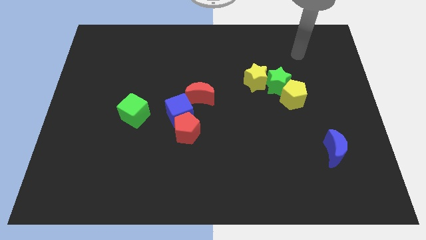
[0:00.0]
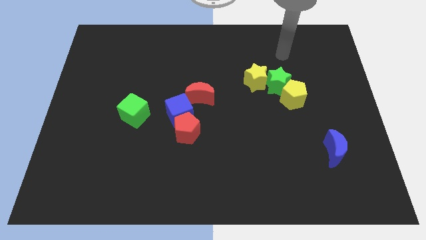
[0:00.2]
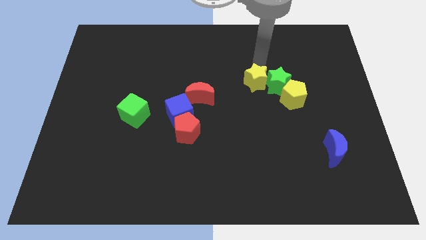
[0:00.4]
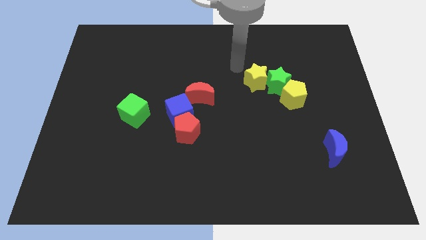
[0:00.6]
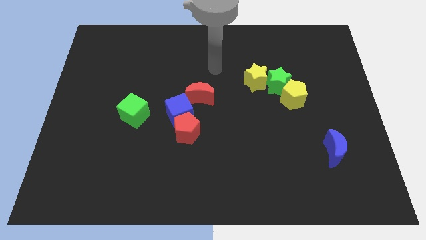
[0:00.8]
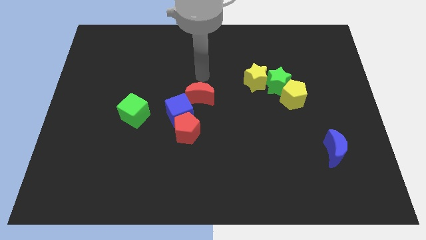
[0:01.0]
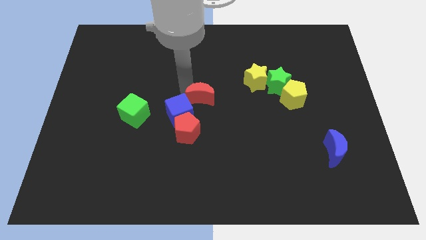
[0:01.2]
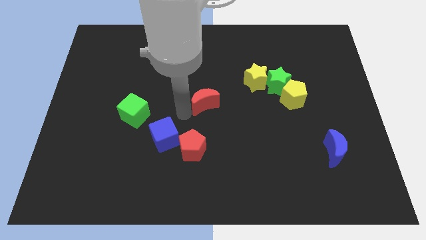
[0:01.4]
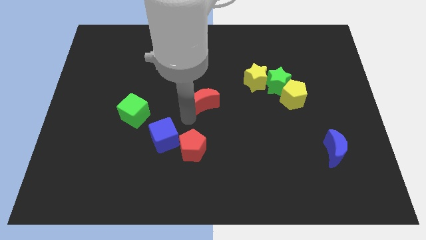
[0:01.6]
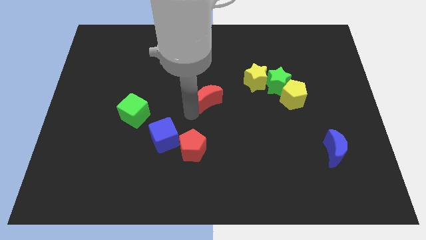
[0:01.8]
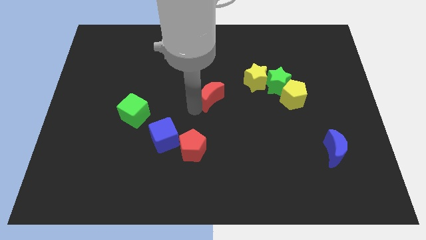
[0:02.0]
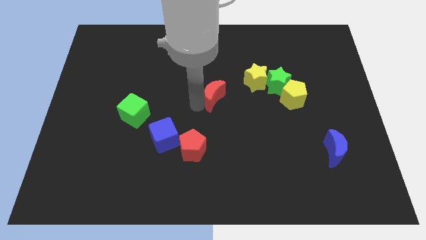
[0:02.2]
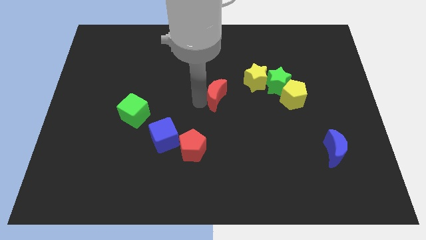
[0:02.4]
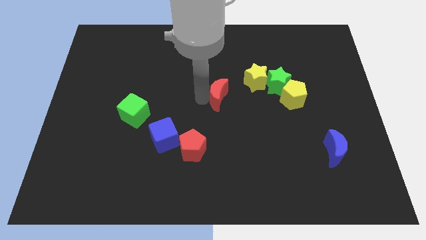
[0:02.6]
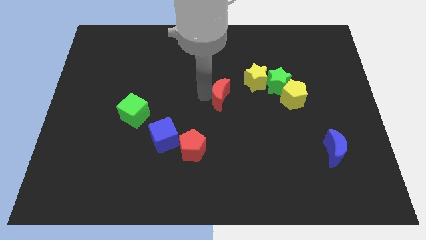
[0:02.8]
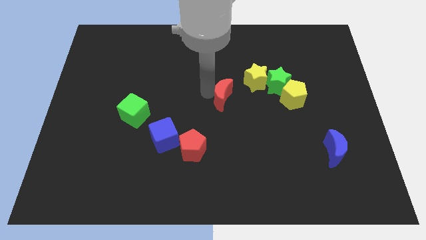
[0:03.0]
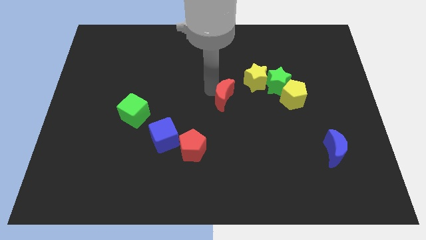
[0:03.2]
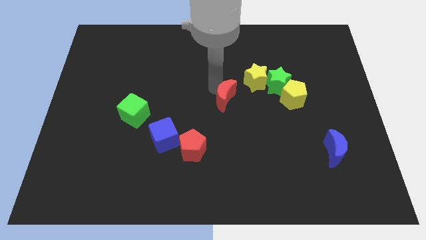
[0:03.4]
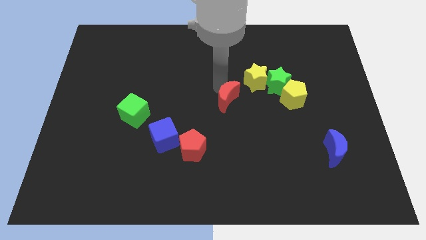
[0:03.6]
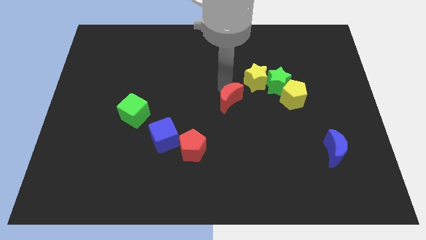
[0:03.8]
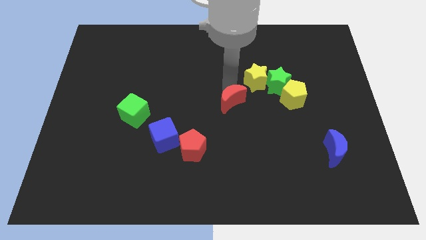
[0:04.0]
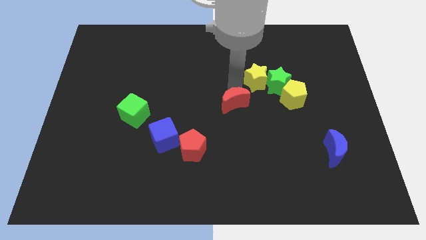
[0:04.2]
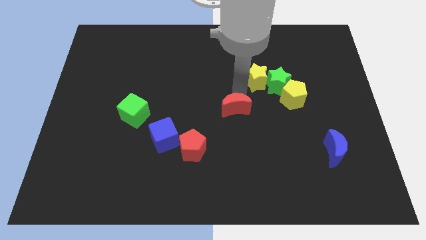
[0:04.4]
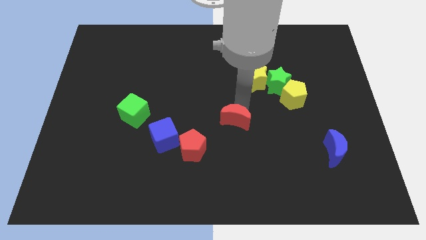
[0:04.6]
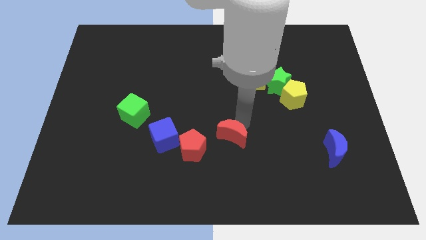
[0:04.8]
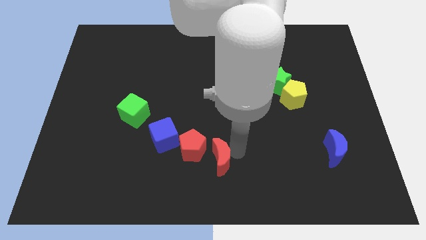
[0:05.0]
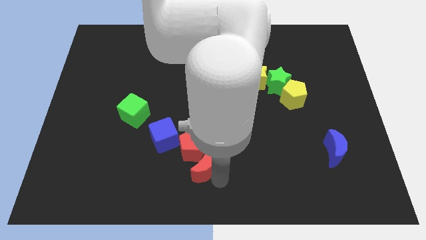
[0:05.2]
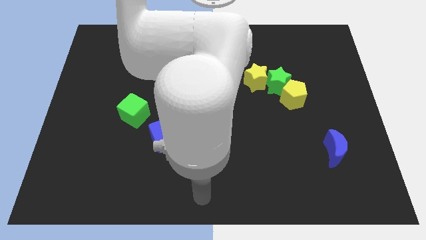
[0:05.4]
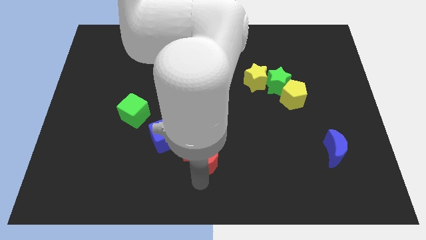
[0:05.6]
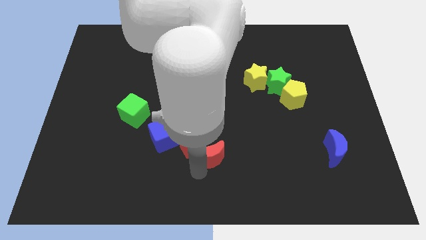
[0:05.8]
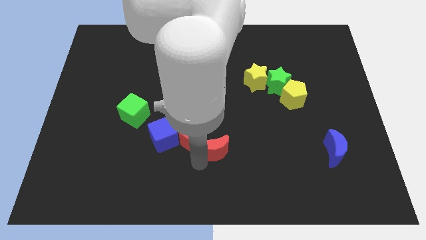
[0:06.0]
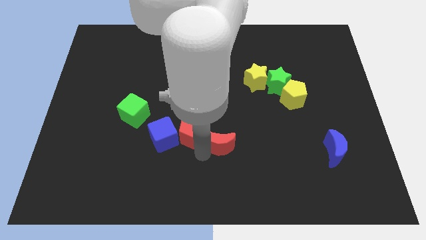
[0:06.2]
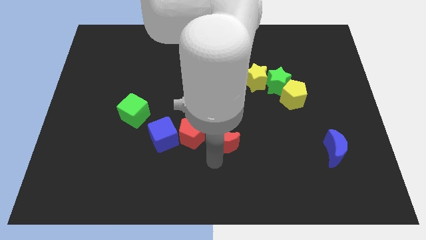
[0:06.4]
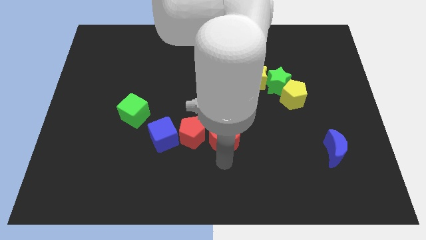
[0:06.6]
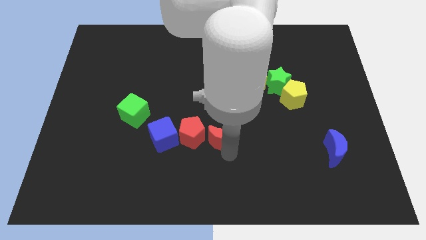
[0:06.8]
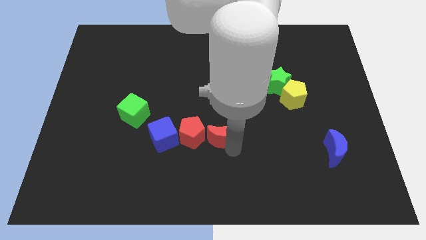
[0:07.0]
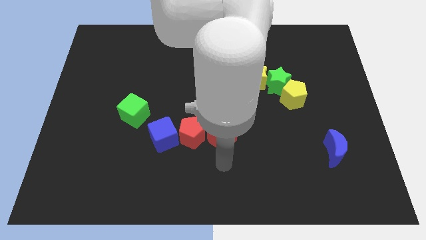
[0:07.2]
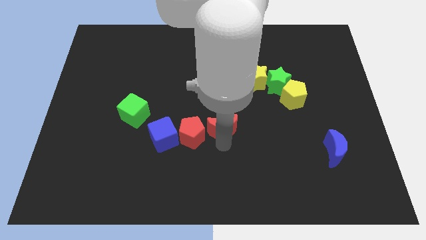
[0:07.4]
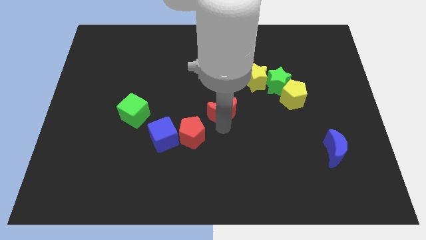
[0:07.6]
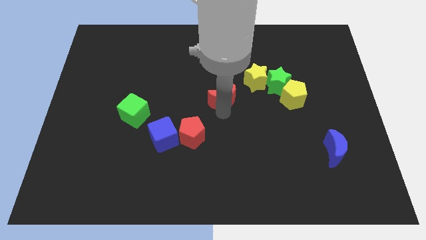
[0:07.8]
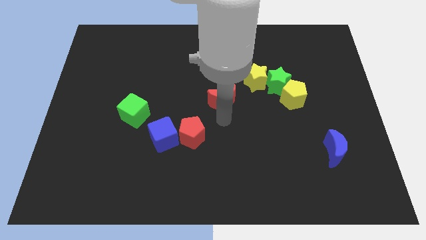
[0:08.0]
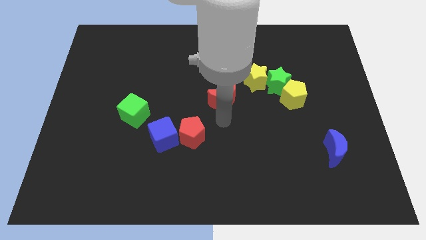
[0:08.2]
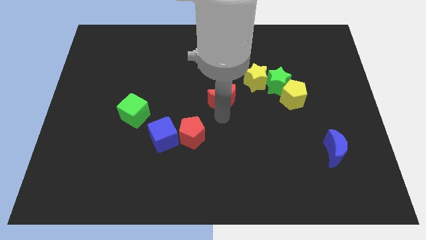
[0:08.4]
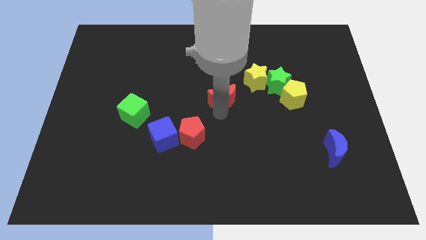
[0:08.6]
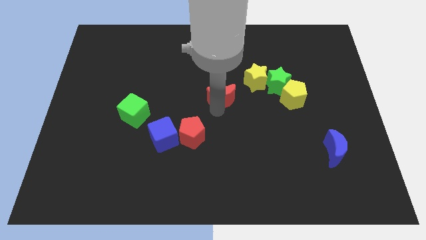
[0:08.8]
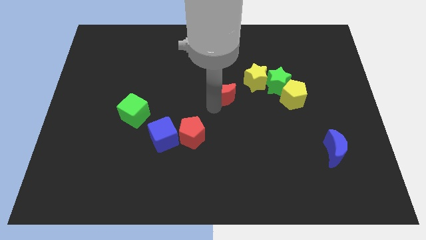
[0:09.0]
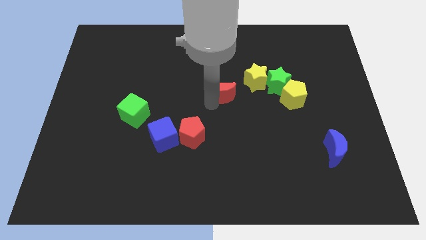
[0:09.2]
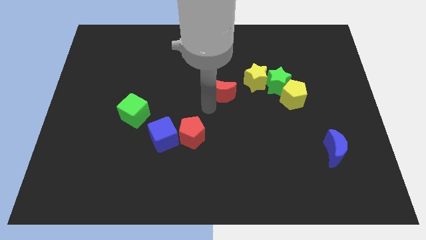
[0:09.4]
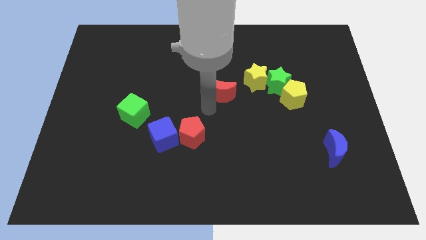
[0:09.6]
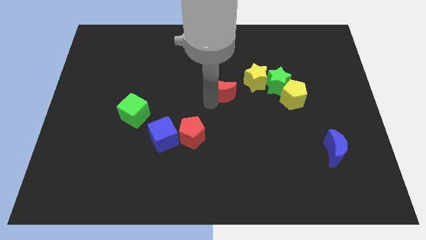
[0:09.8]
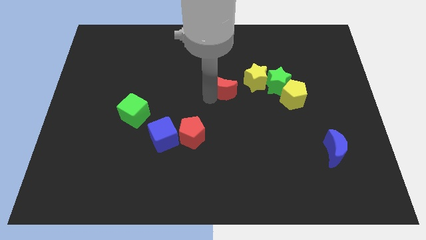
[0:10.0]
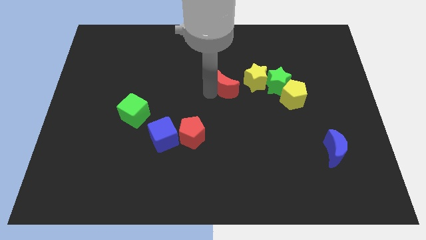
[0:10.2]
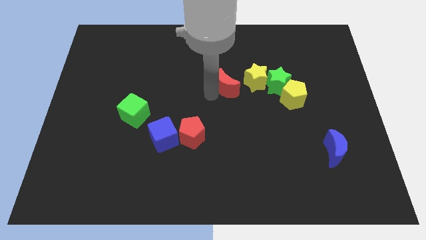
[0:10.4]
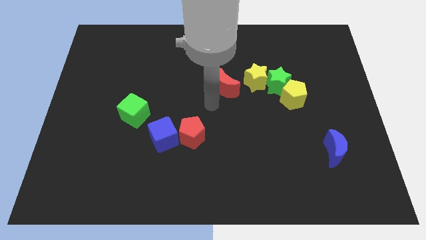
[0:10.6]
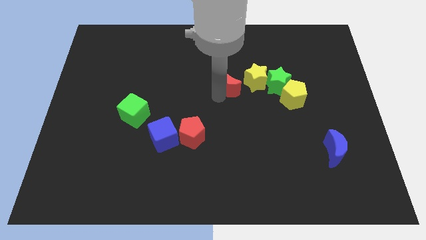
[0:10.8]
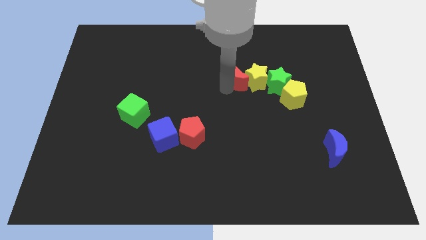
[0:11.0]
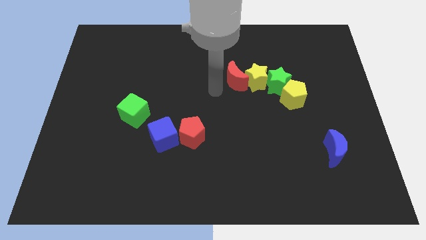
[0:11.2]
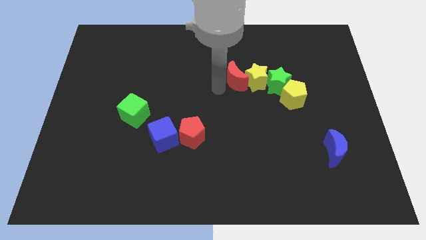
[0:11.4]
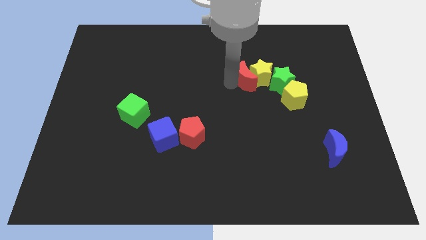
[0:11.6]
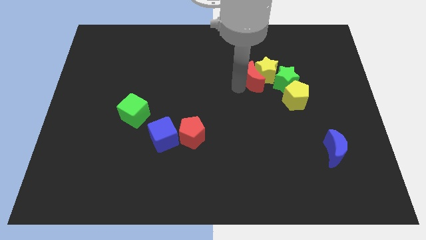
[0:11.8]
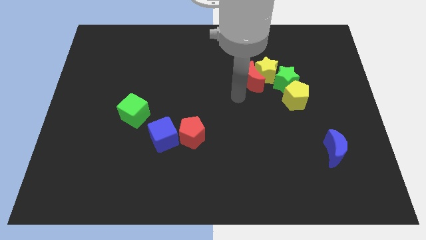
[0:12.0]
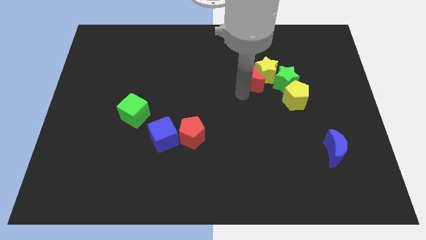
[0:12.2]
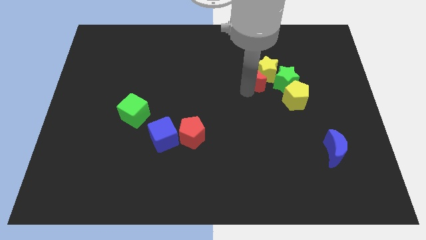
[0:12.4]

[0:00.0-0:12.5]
slide the red moon to the top left side of the green star

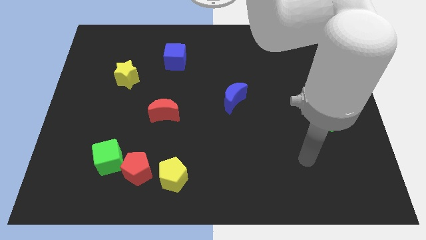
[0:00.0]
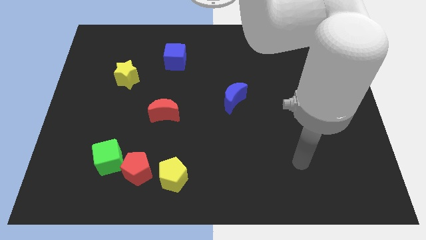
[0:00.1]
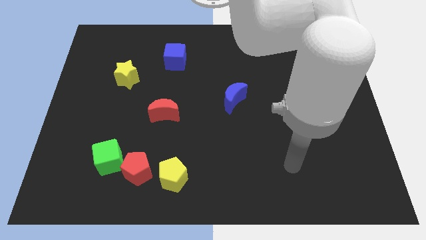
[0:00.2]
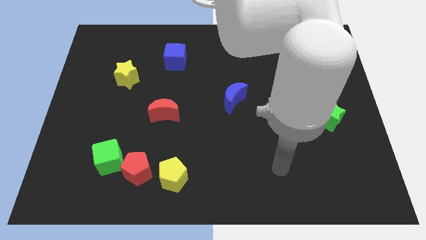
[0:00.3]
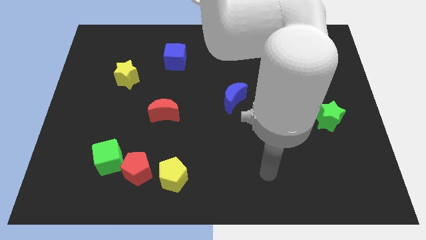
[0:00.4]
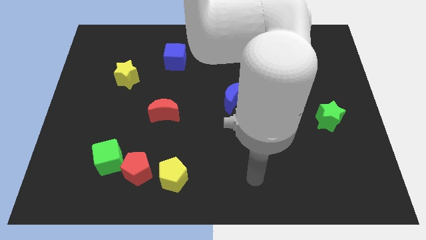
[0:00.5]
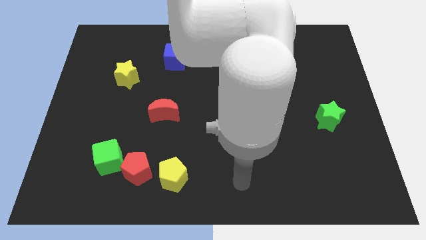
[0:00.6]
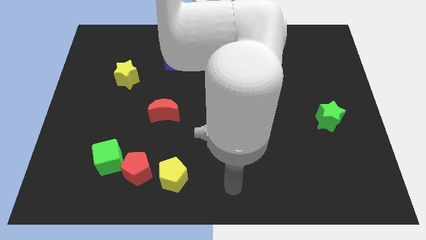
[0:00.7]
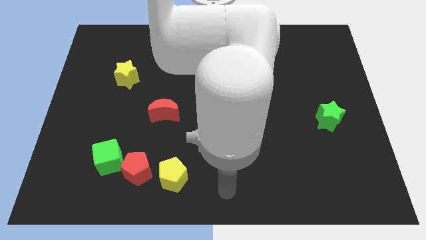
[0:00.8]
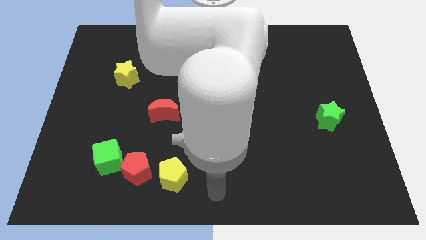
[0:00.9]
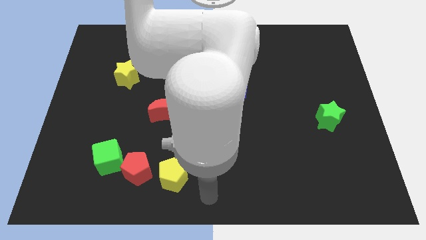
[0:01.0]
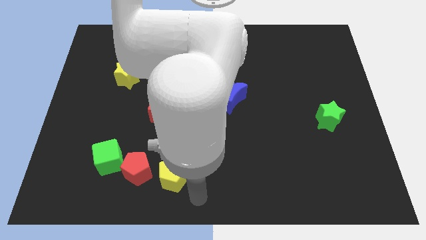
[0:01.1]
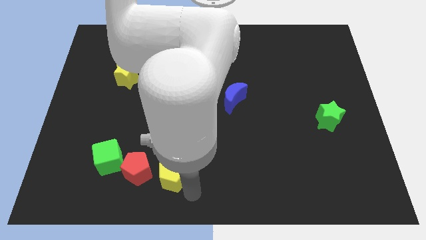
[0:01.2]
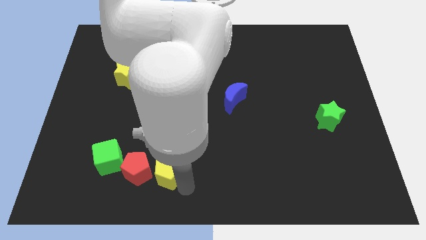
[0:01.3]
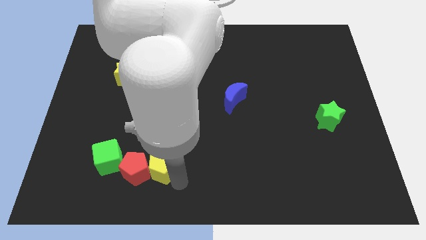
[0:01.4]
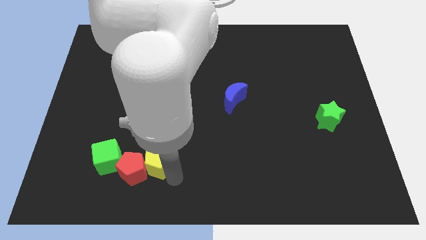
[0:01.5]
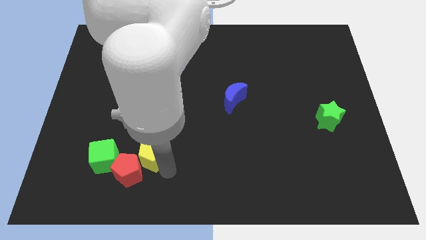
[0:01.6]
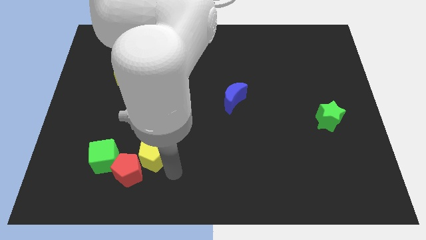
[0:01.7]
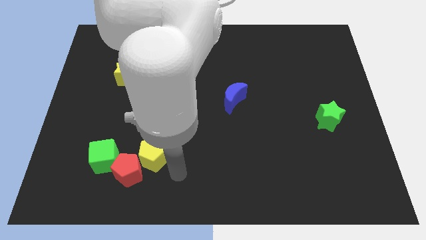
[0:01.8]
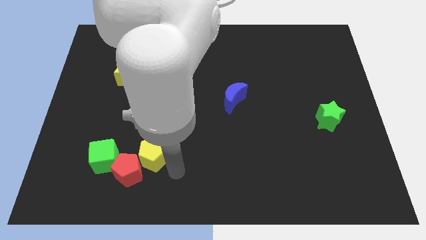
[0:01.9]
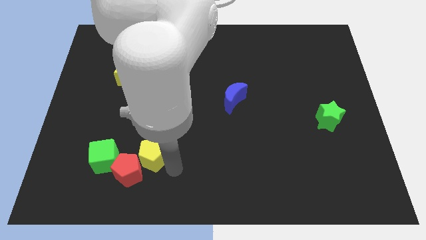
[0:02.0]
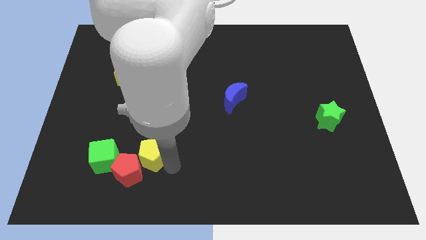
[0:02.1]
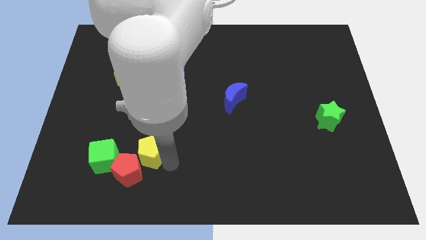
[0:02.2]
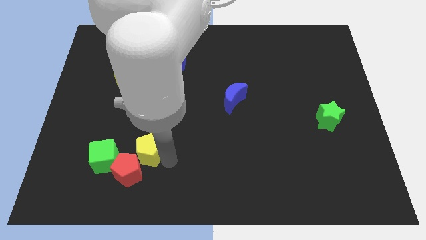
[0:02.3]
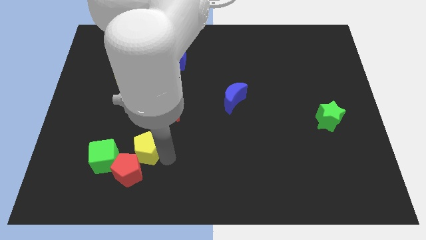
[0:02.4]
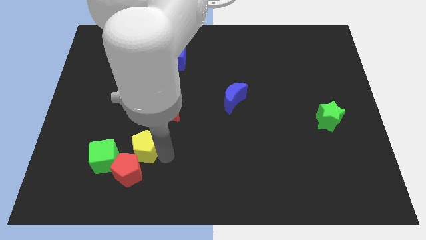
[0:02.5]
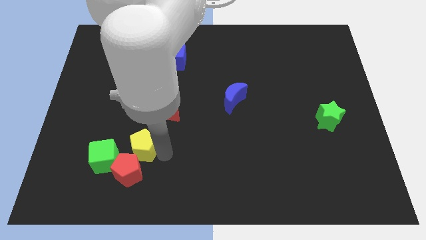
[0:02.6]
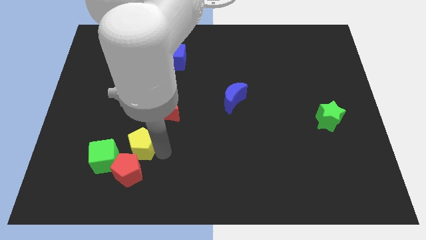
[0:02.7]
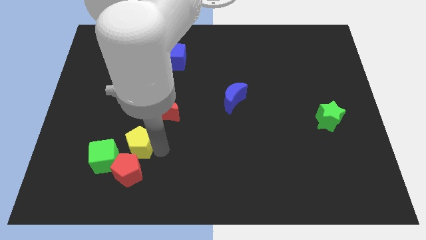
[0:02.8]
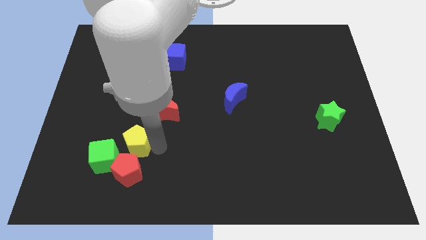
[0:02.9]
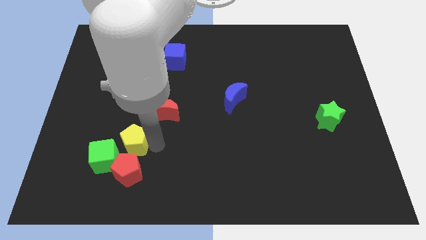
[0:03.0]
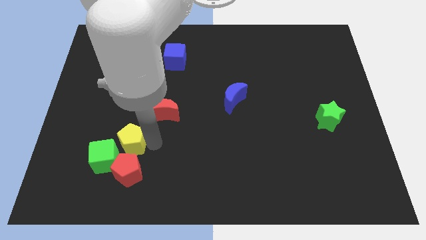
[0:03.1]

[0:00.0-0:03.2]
push the yellow pentagon to the top left side of the red pentagon
